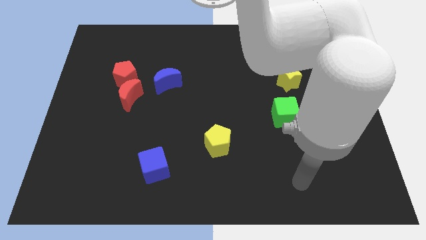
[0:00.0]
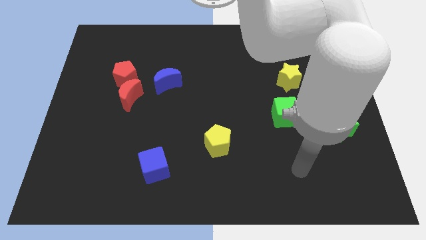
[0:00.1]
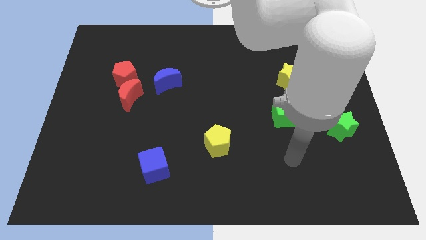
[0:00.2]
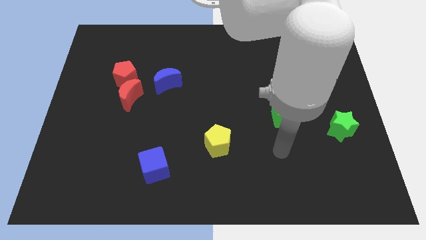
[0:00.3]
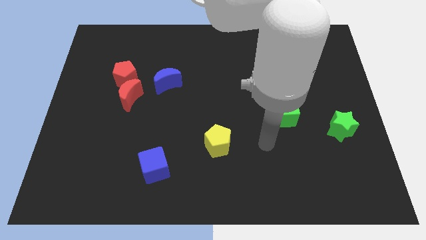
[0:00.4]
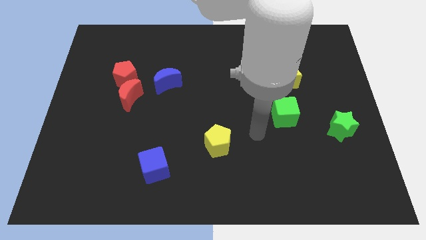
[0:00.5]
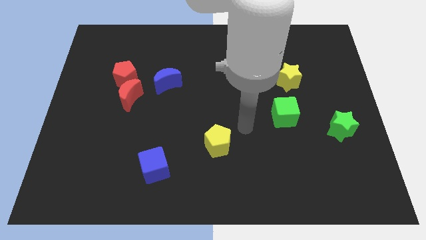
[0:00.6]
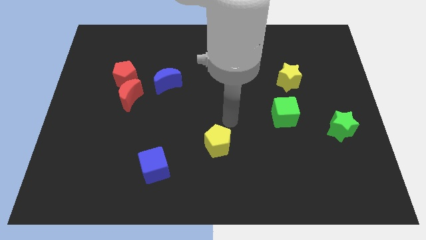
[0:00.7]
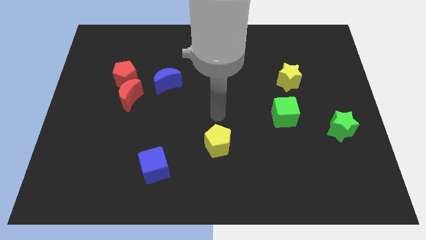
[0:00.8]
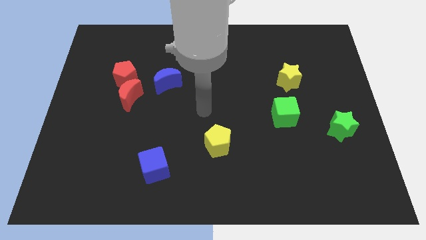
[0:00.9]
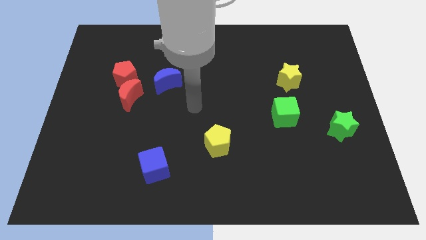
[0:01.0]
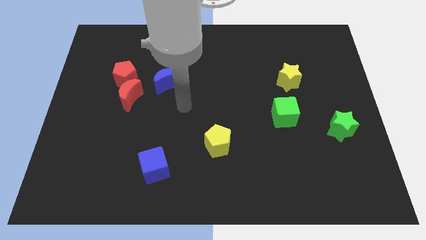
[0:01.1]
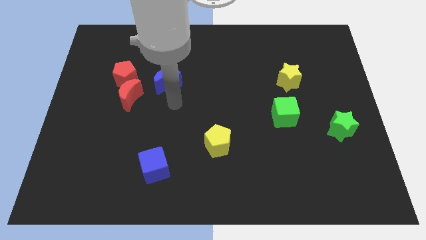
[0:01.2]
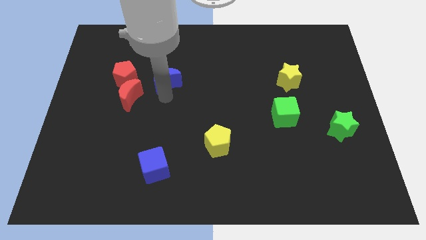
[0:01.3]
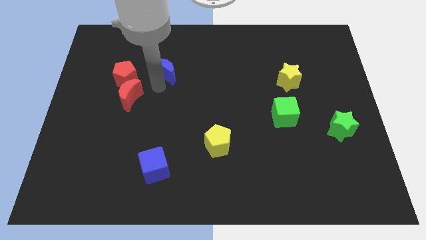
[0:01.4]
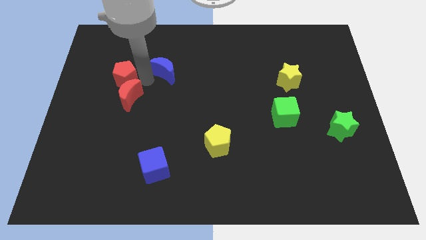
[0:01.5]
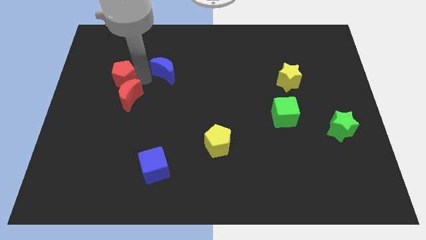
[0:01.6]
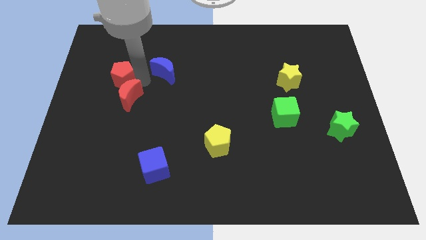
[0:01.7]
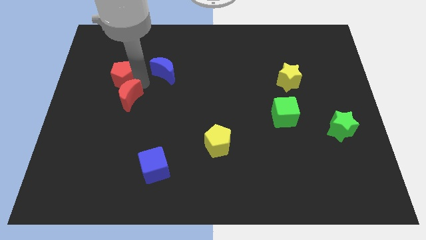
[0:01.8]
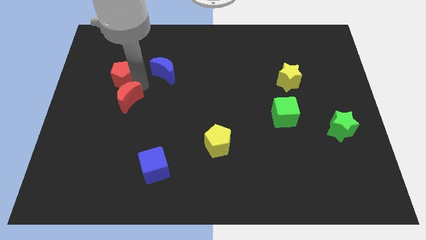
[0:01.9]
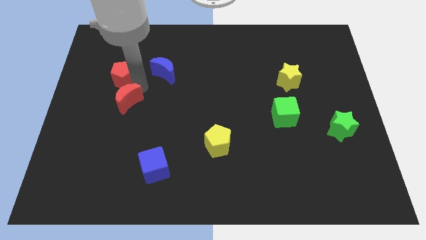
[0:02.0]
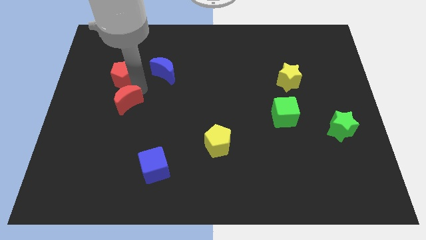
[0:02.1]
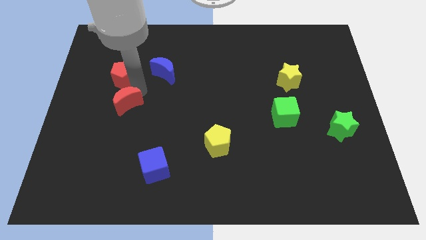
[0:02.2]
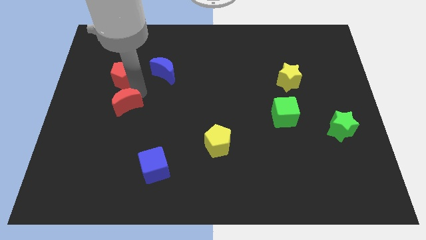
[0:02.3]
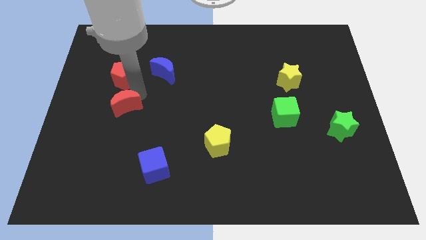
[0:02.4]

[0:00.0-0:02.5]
move the red moon away from the red pentagon and blue moon

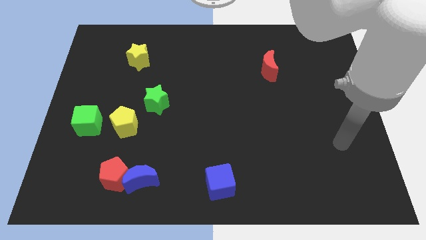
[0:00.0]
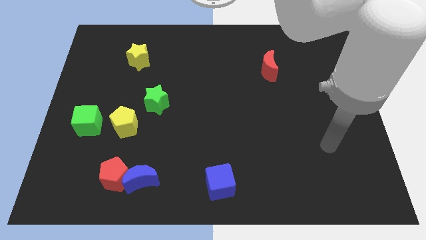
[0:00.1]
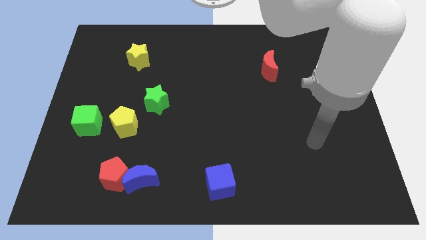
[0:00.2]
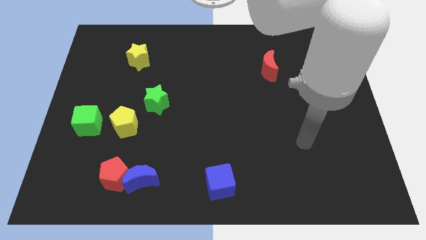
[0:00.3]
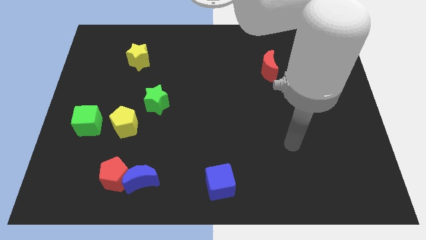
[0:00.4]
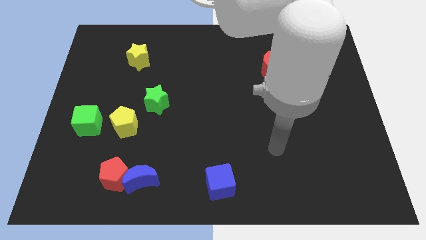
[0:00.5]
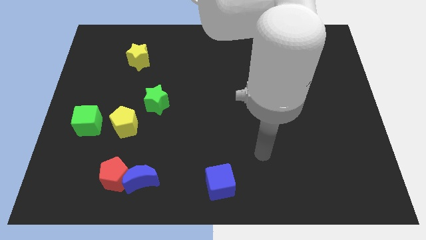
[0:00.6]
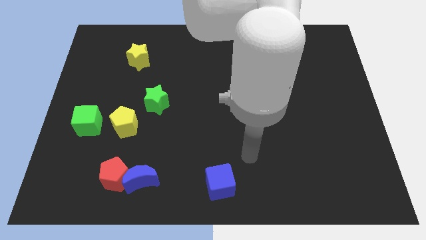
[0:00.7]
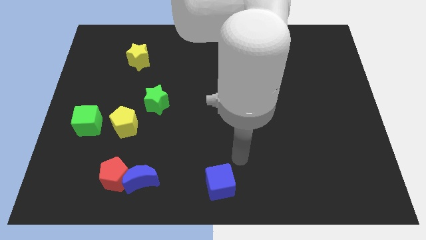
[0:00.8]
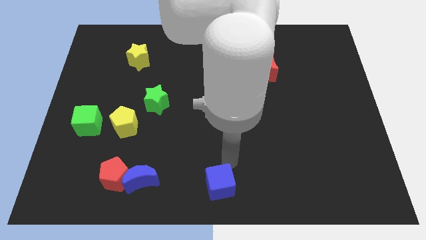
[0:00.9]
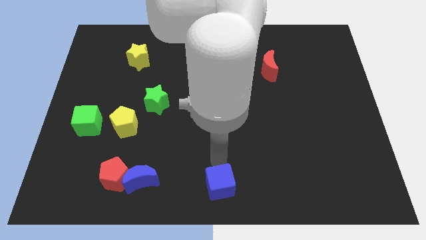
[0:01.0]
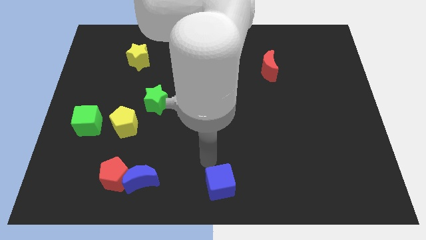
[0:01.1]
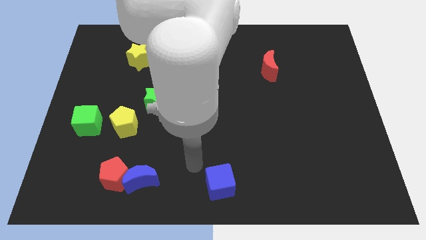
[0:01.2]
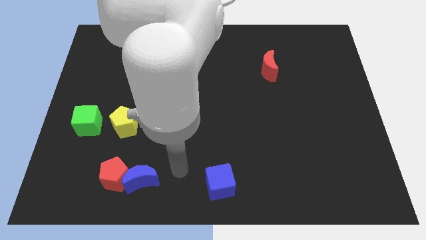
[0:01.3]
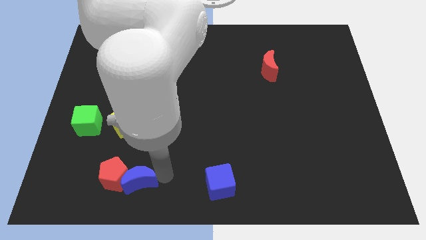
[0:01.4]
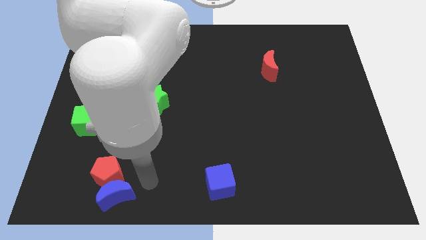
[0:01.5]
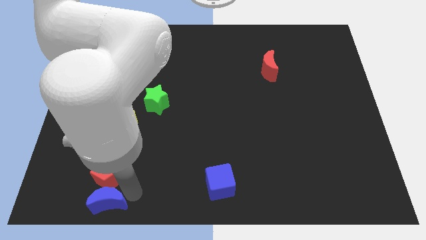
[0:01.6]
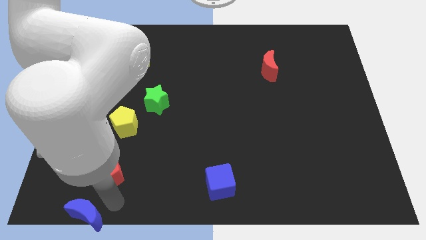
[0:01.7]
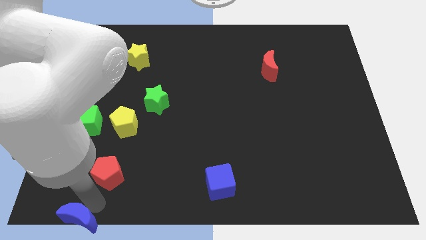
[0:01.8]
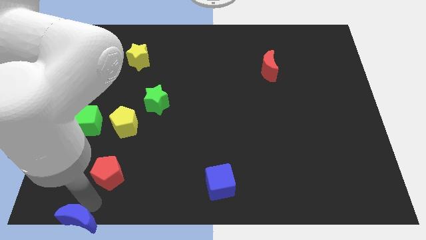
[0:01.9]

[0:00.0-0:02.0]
pull the red pentagon apart from the blue moon

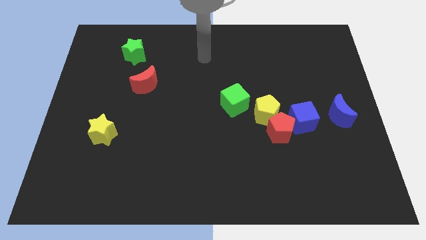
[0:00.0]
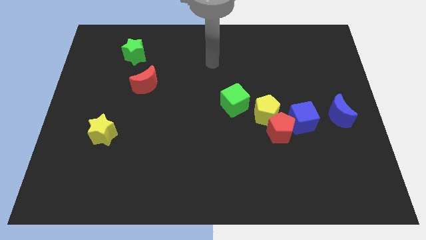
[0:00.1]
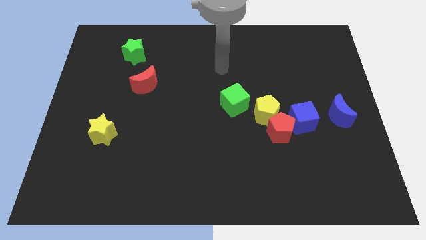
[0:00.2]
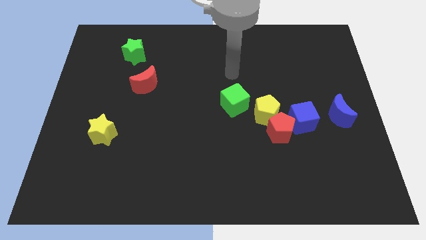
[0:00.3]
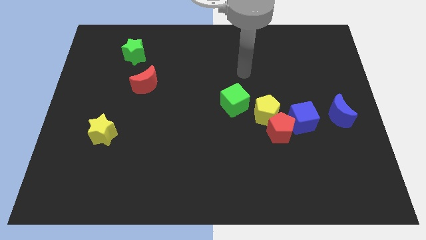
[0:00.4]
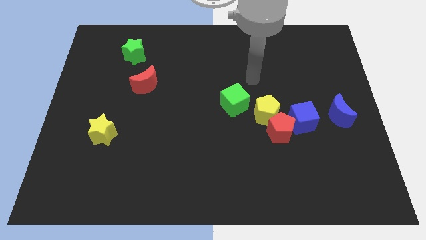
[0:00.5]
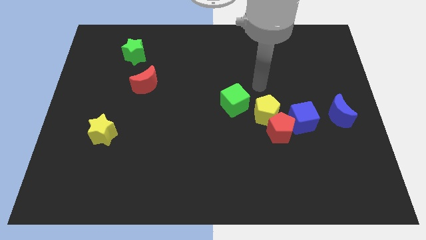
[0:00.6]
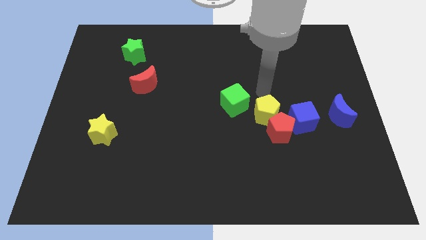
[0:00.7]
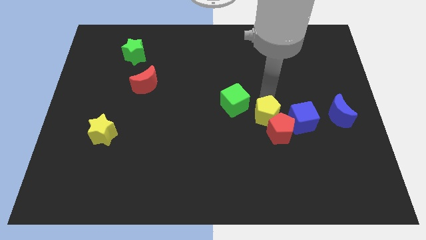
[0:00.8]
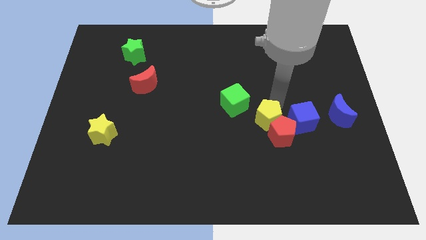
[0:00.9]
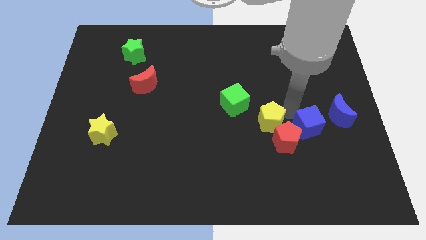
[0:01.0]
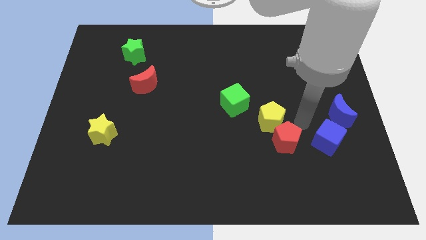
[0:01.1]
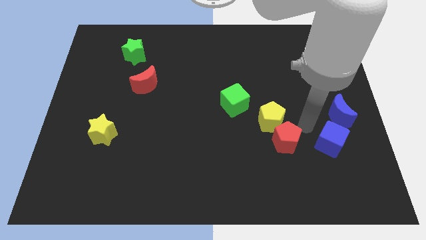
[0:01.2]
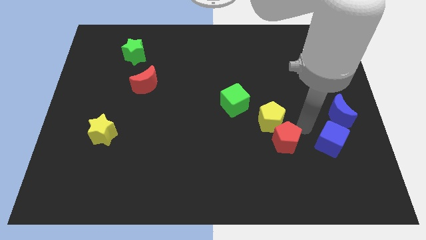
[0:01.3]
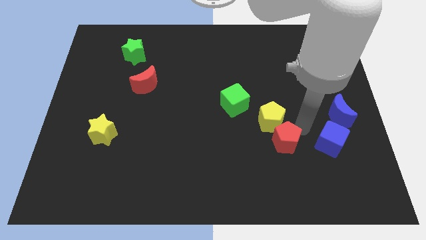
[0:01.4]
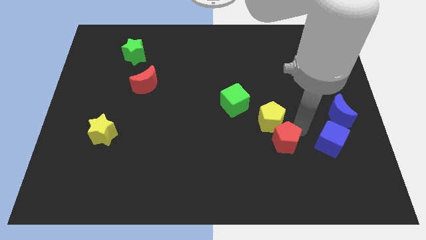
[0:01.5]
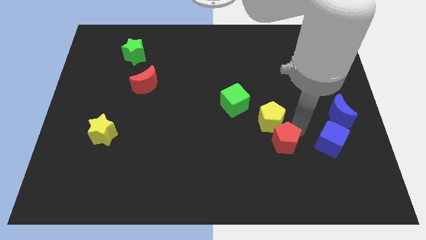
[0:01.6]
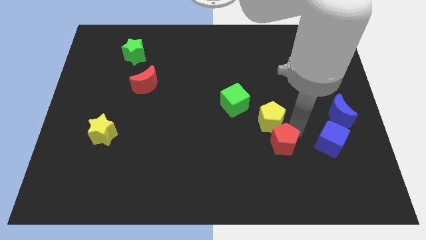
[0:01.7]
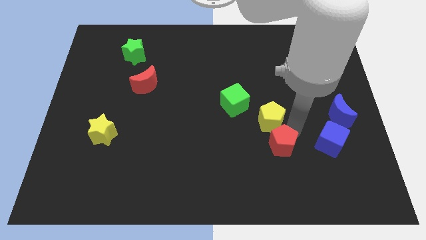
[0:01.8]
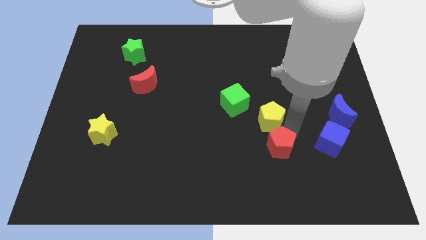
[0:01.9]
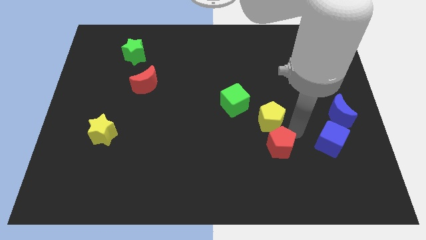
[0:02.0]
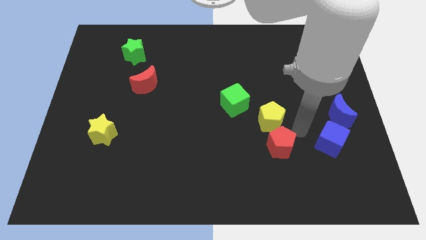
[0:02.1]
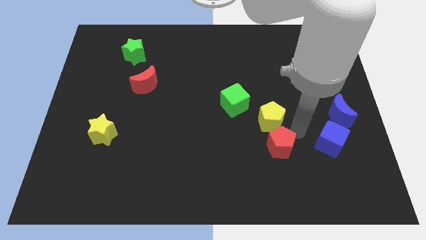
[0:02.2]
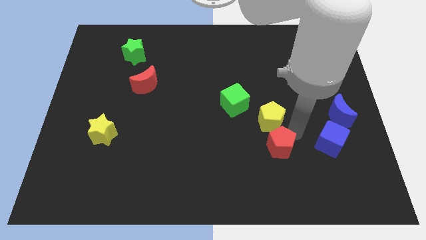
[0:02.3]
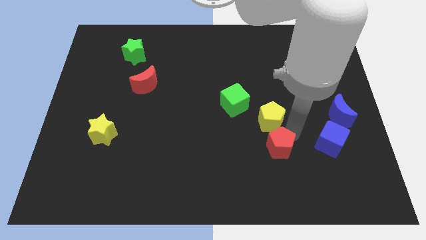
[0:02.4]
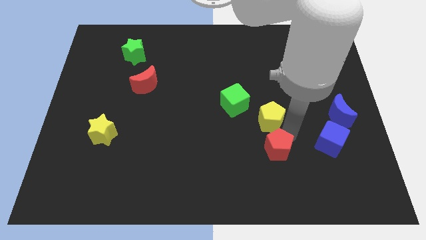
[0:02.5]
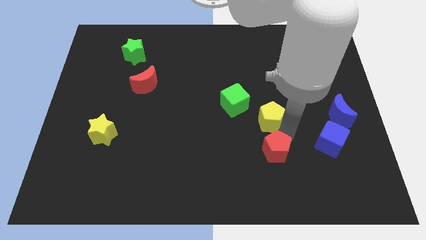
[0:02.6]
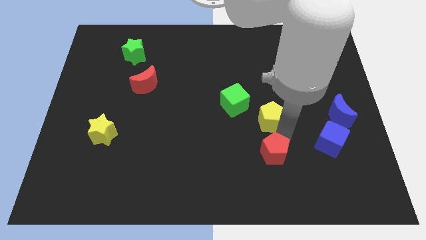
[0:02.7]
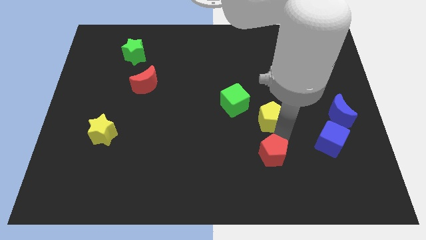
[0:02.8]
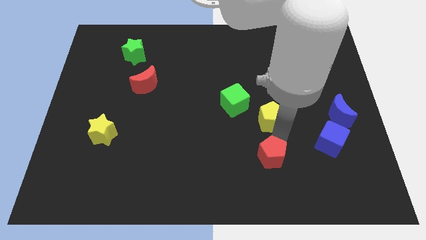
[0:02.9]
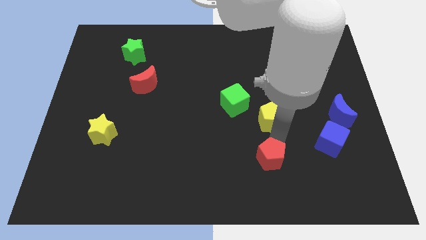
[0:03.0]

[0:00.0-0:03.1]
separate the red pentagon from the yellow pentagon and blue cube

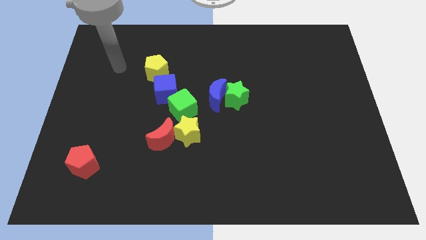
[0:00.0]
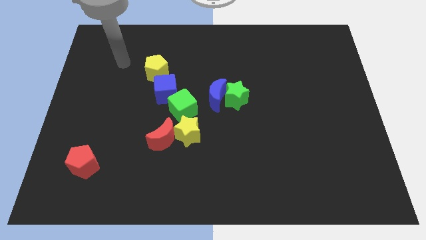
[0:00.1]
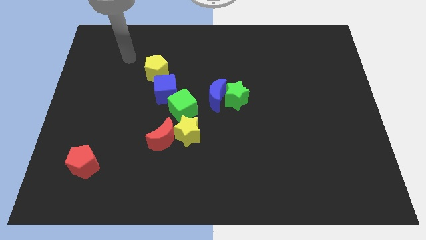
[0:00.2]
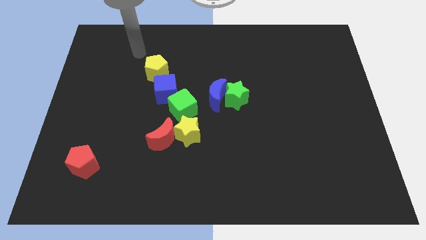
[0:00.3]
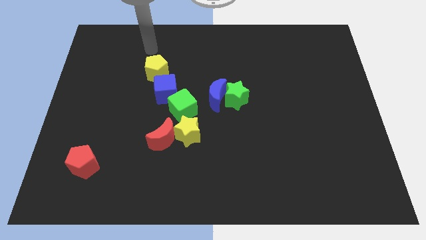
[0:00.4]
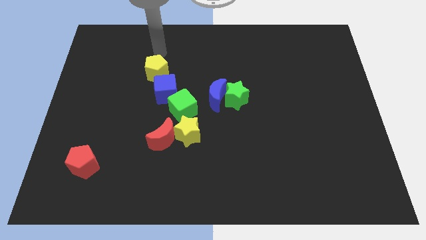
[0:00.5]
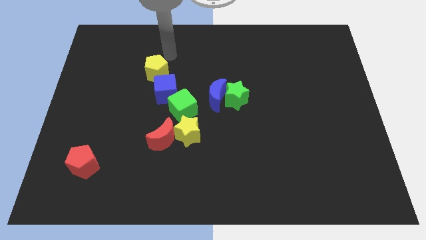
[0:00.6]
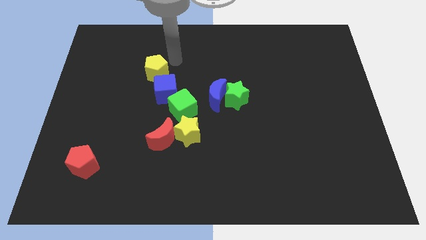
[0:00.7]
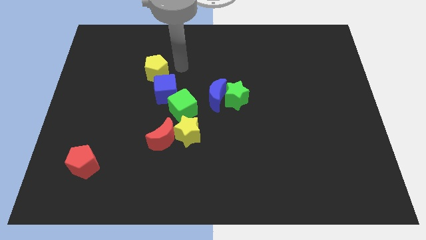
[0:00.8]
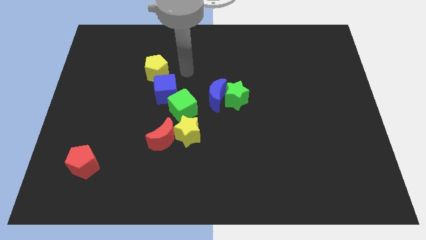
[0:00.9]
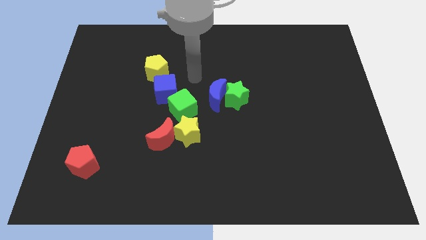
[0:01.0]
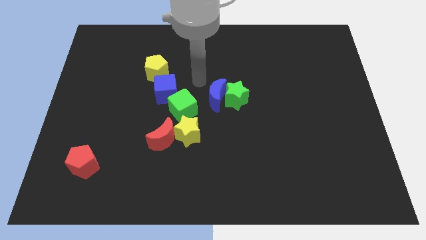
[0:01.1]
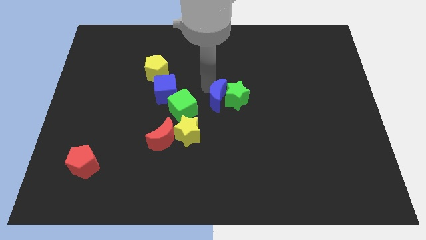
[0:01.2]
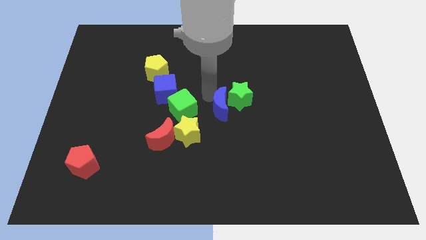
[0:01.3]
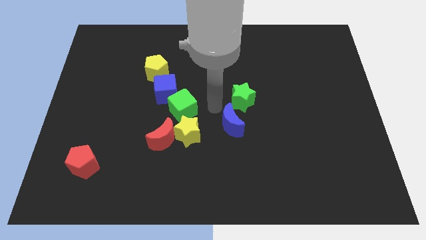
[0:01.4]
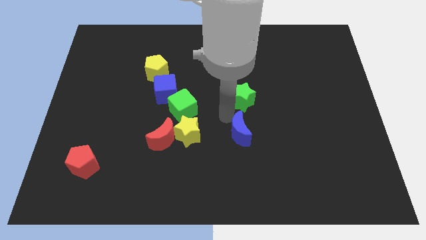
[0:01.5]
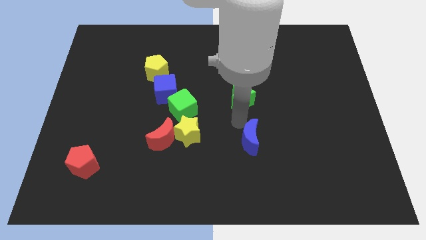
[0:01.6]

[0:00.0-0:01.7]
pull the green star apart from the blue moon

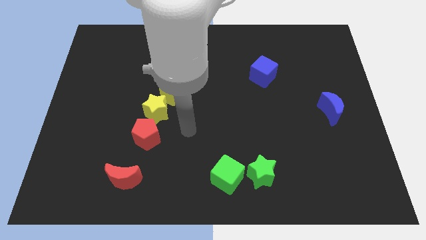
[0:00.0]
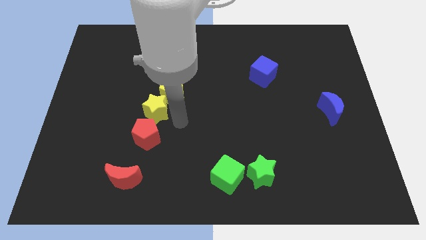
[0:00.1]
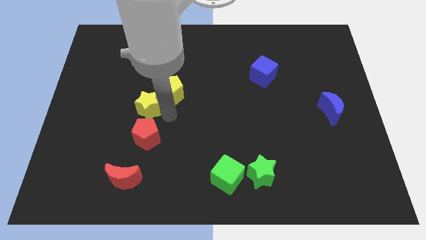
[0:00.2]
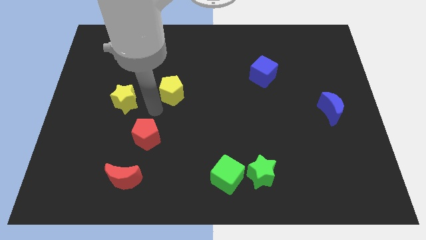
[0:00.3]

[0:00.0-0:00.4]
pull the yellow pentagon apart from the yellow star
